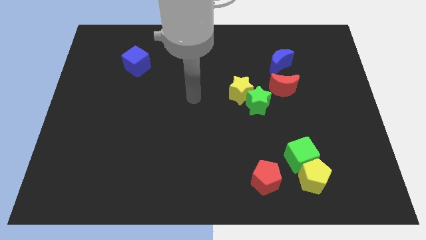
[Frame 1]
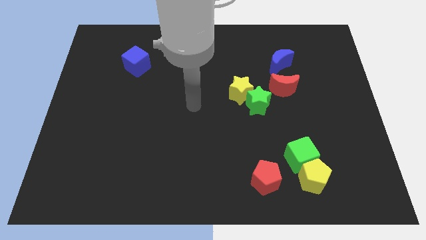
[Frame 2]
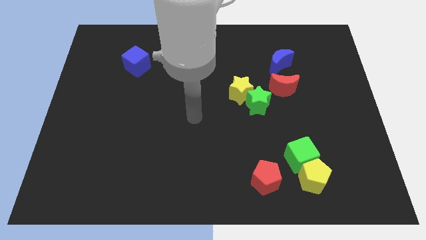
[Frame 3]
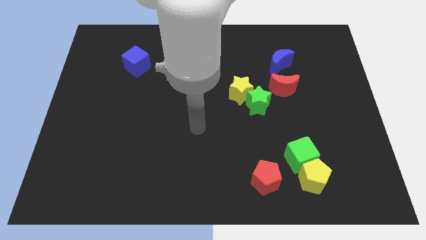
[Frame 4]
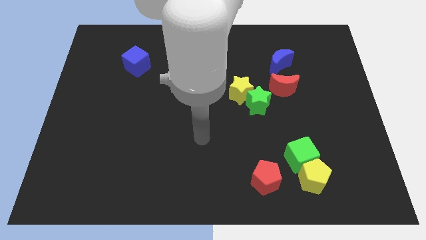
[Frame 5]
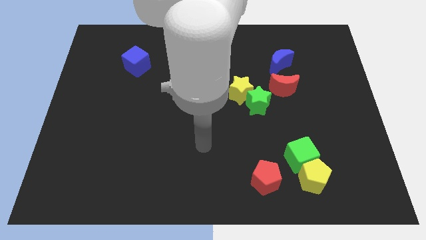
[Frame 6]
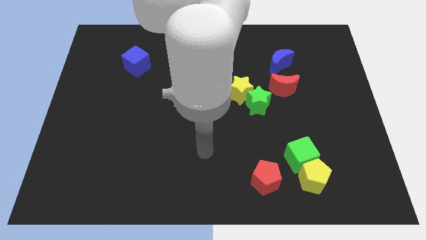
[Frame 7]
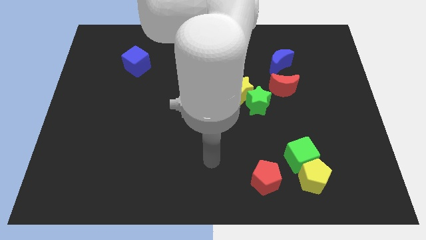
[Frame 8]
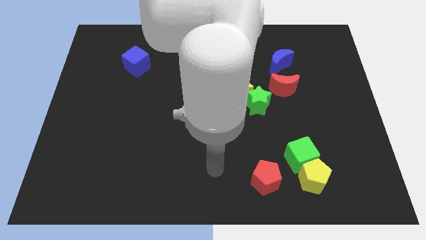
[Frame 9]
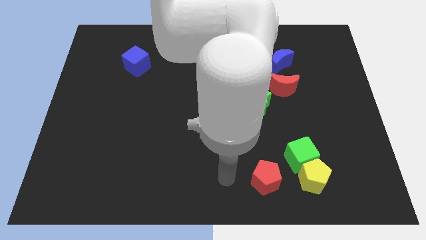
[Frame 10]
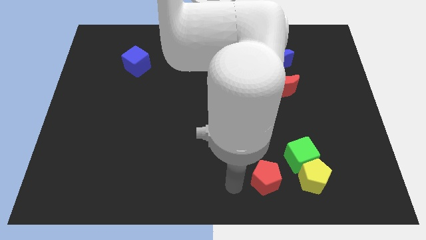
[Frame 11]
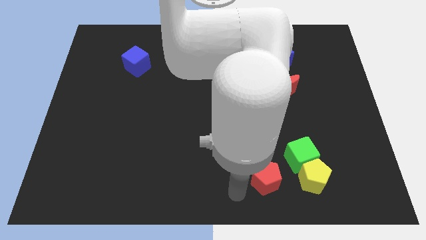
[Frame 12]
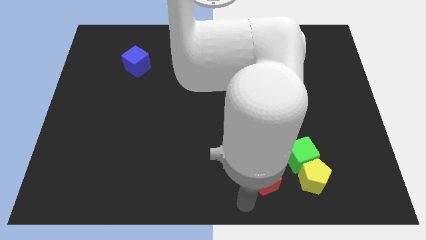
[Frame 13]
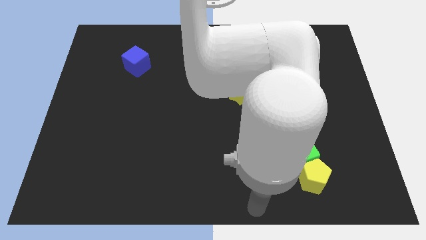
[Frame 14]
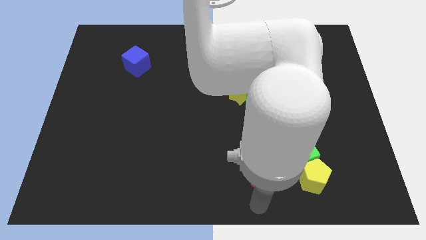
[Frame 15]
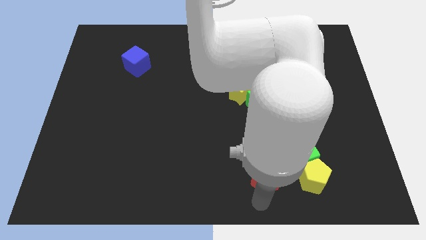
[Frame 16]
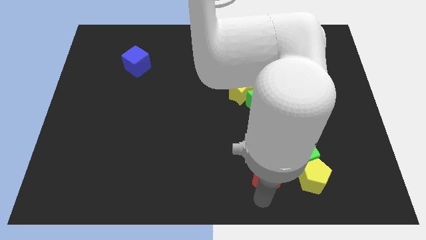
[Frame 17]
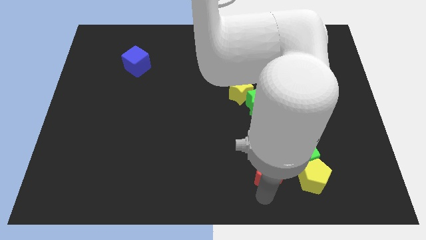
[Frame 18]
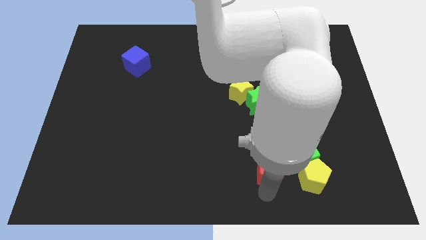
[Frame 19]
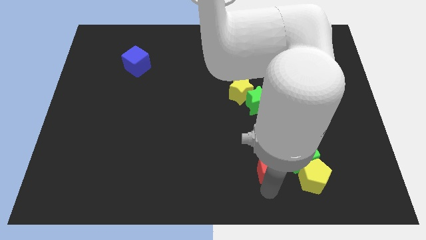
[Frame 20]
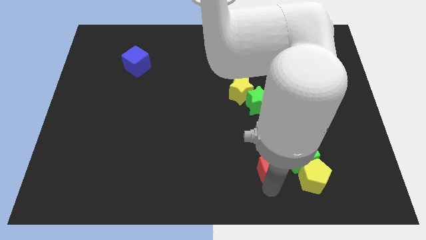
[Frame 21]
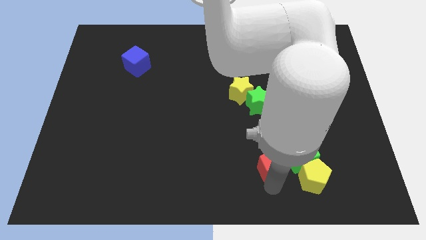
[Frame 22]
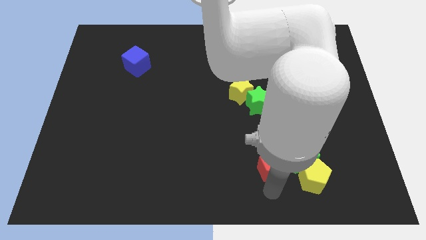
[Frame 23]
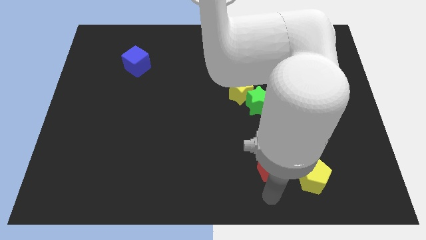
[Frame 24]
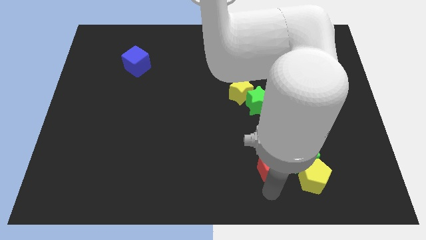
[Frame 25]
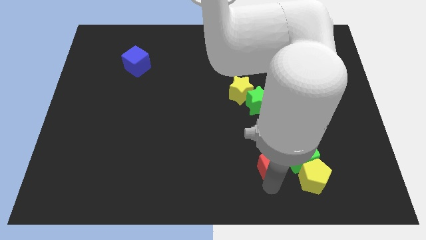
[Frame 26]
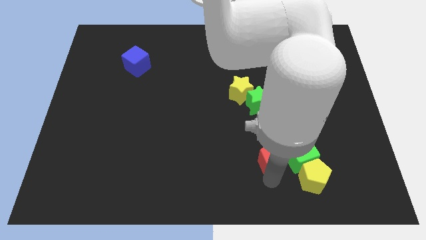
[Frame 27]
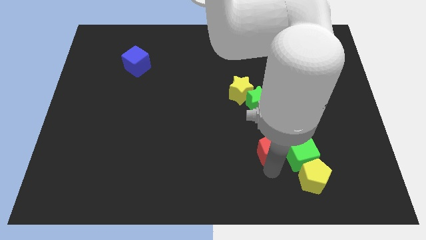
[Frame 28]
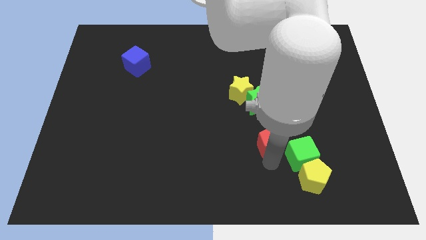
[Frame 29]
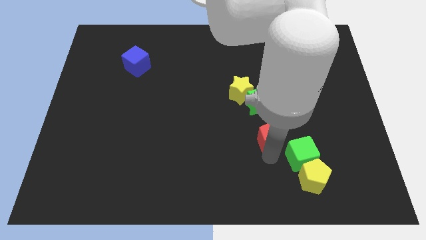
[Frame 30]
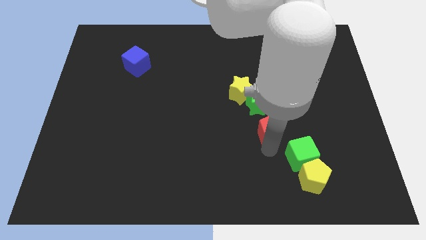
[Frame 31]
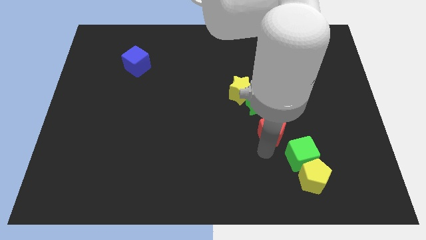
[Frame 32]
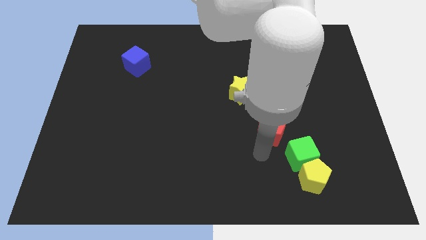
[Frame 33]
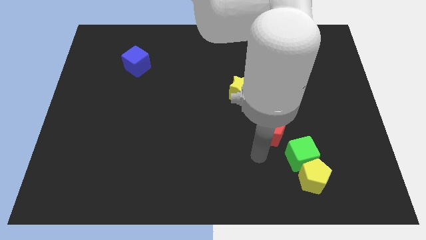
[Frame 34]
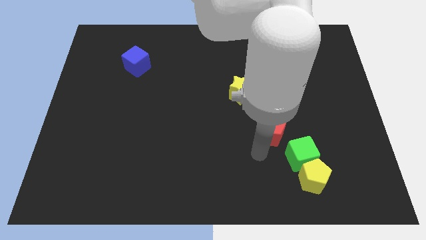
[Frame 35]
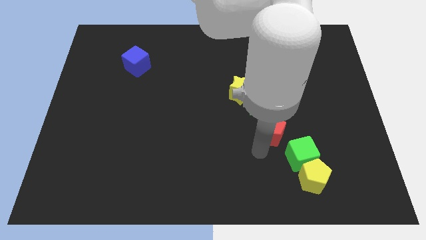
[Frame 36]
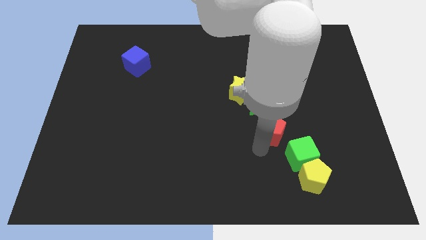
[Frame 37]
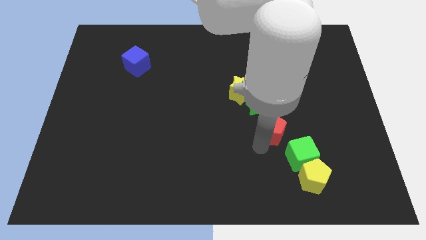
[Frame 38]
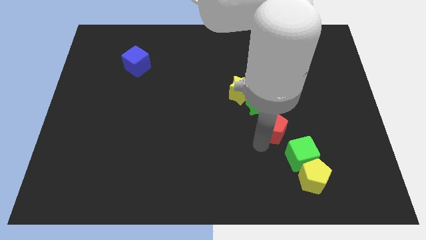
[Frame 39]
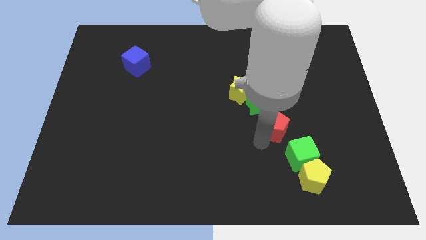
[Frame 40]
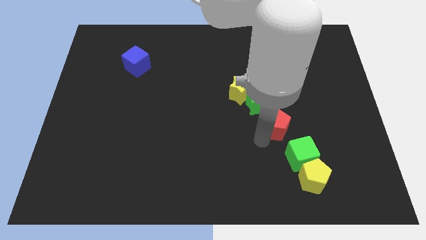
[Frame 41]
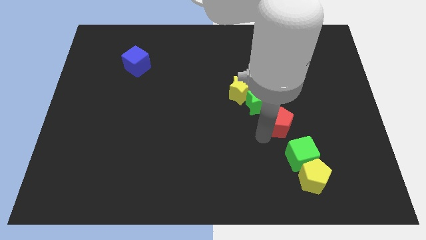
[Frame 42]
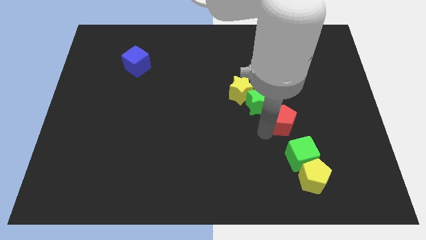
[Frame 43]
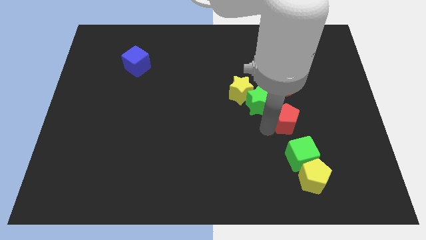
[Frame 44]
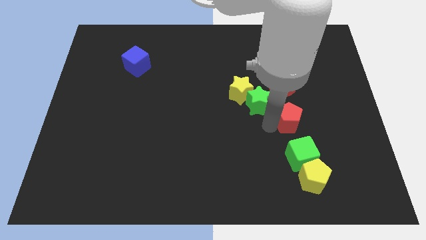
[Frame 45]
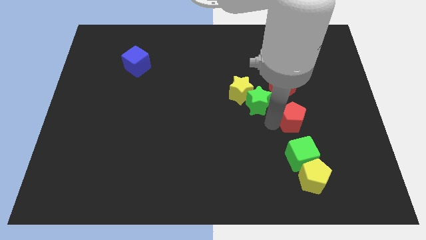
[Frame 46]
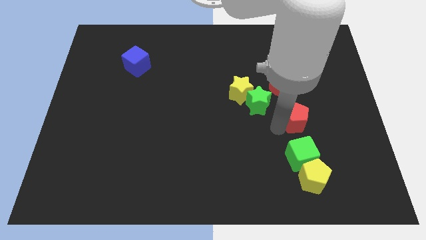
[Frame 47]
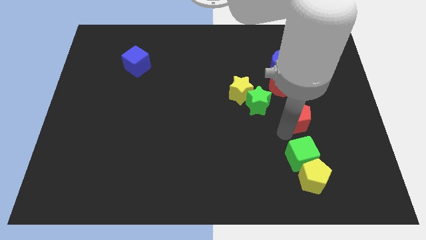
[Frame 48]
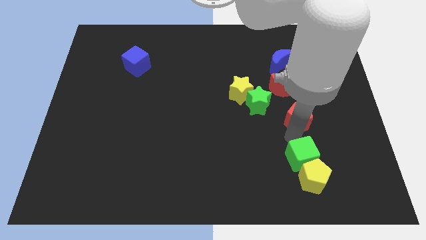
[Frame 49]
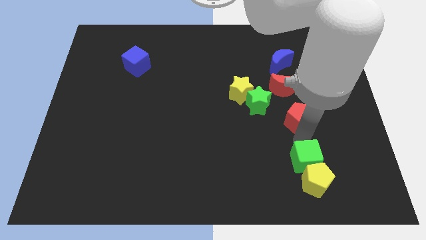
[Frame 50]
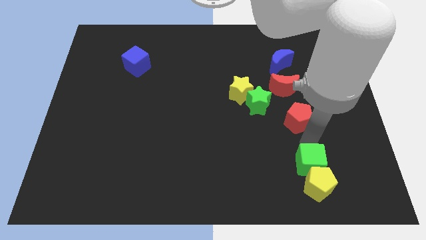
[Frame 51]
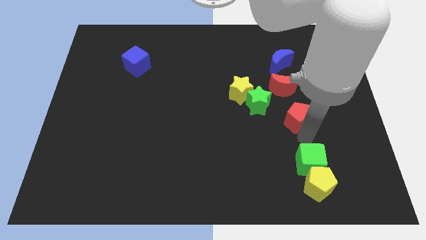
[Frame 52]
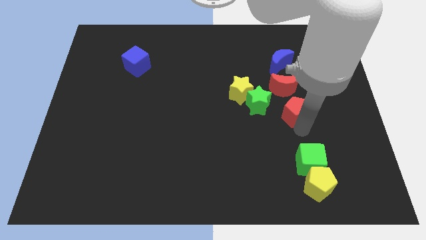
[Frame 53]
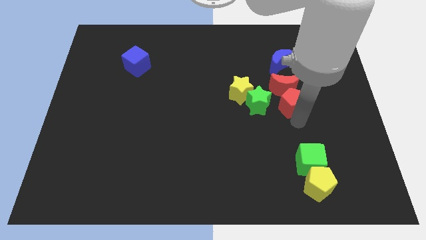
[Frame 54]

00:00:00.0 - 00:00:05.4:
slide the red pentagon close to the red moon

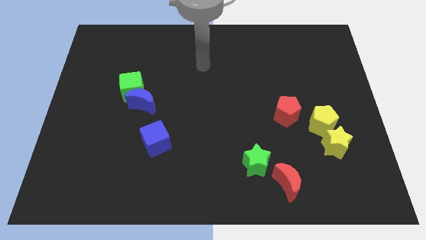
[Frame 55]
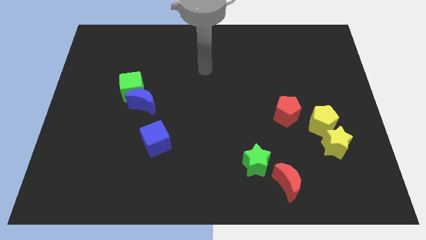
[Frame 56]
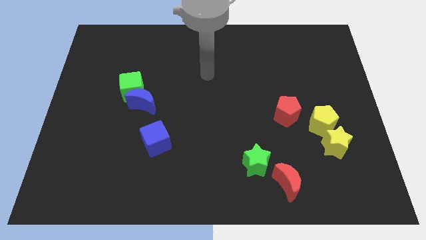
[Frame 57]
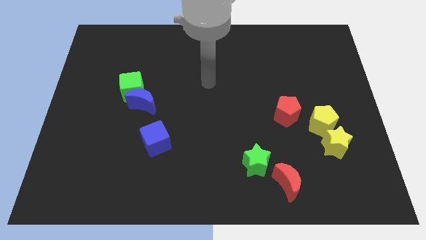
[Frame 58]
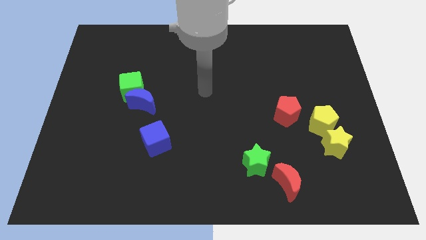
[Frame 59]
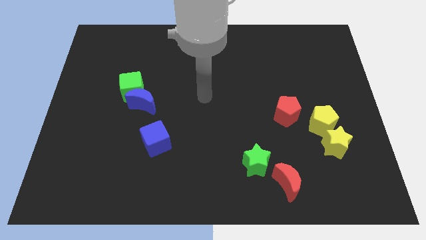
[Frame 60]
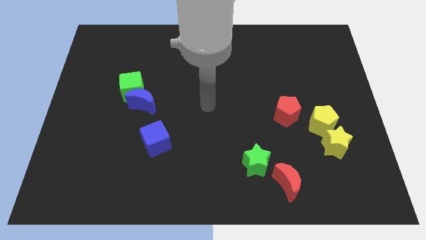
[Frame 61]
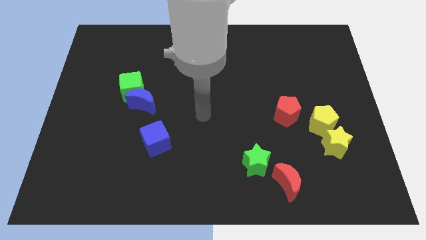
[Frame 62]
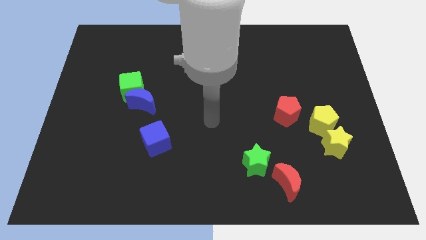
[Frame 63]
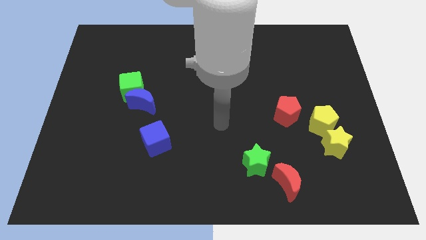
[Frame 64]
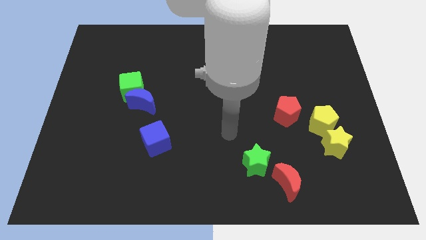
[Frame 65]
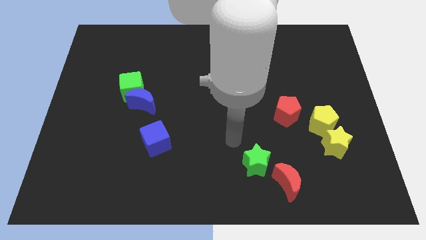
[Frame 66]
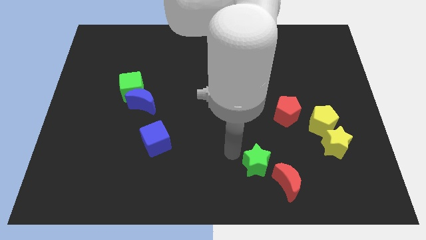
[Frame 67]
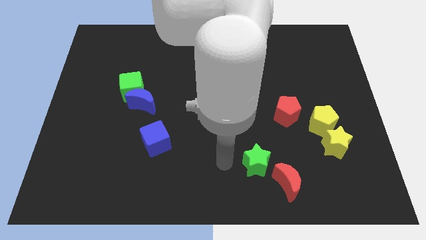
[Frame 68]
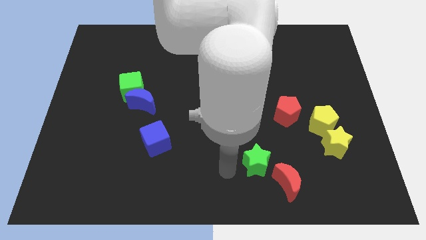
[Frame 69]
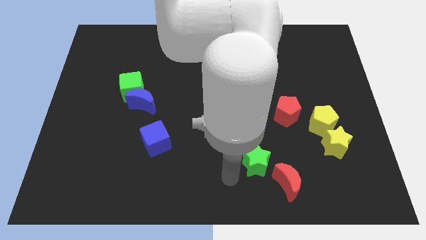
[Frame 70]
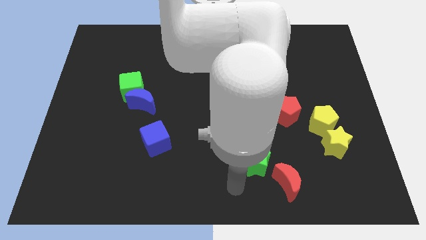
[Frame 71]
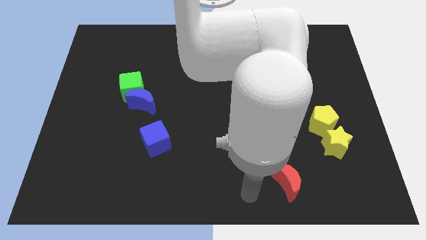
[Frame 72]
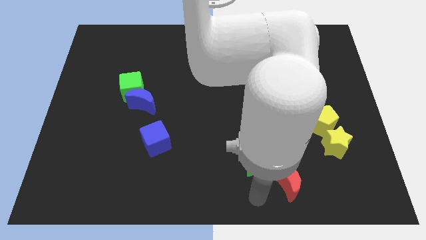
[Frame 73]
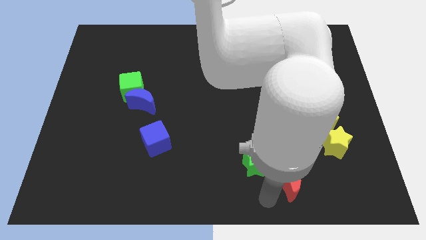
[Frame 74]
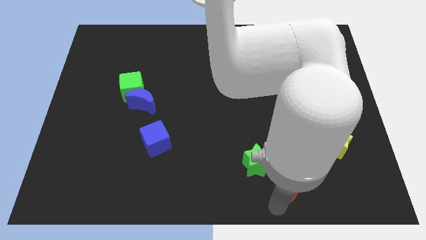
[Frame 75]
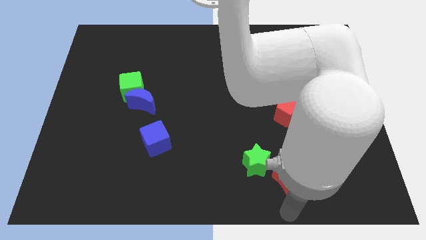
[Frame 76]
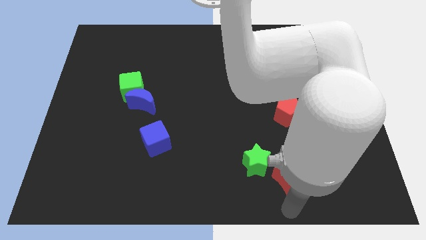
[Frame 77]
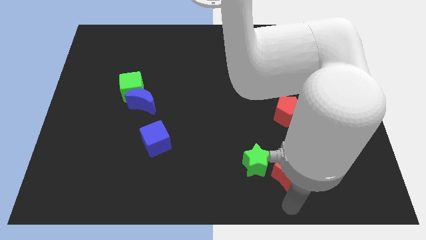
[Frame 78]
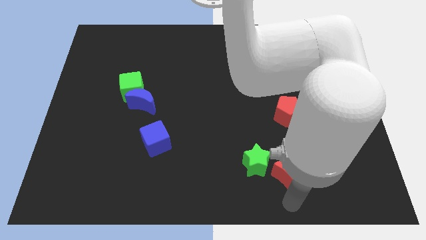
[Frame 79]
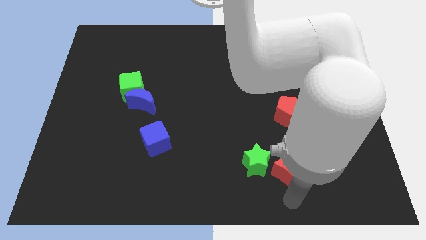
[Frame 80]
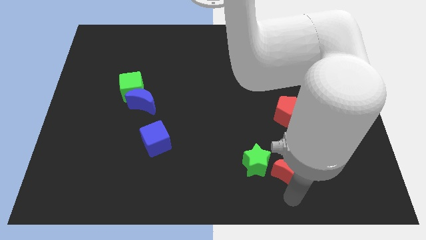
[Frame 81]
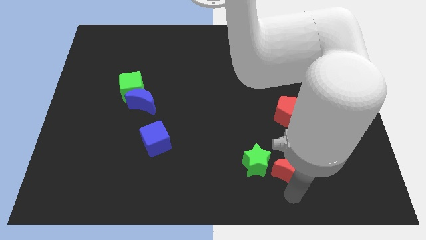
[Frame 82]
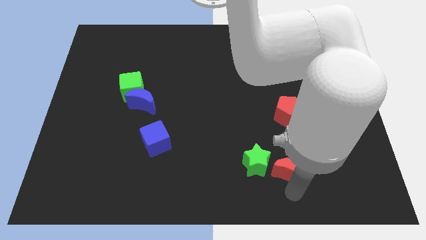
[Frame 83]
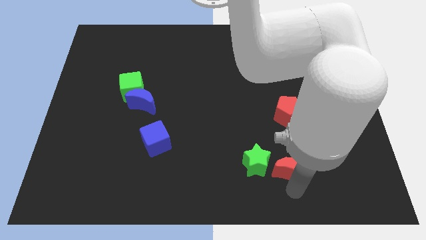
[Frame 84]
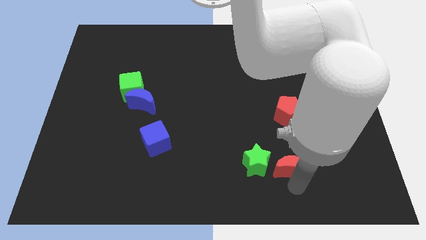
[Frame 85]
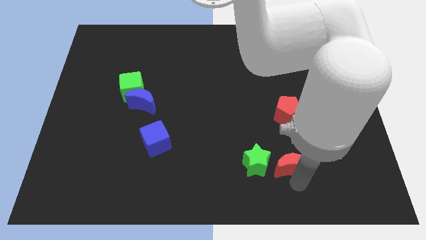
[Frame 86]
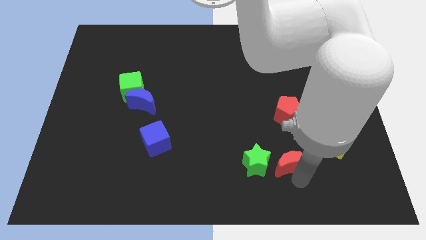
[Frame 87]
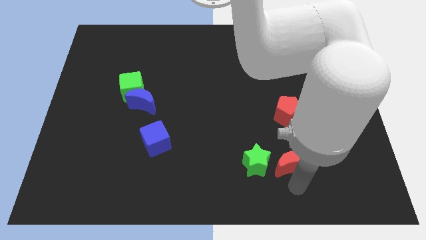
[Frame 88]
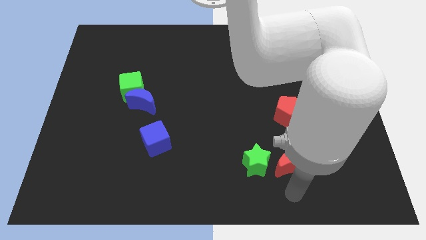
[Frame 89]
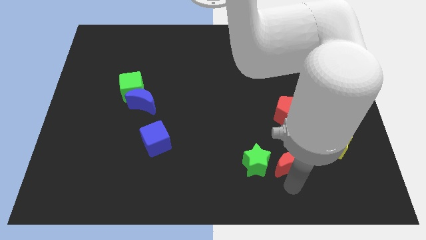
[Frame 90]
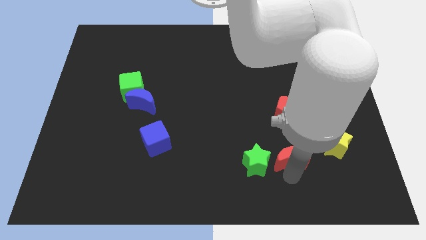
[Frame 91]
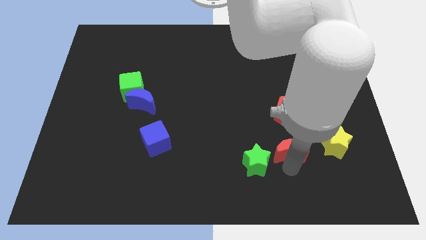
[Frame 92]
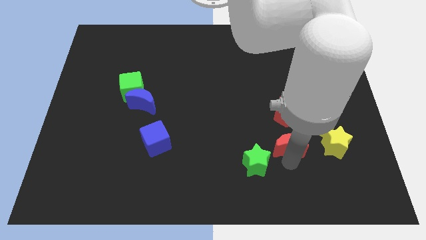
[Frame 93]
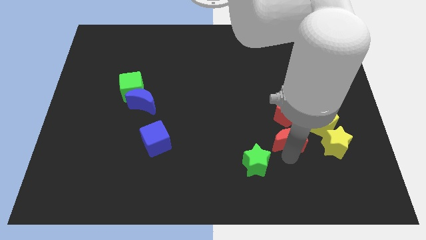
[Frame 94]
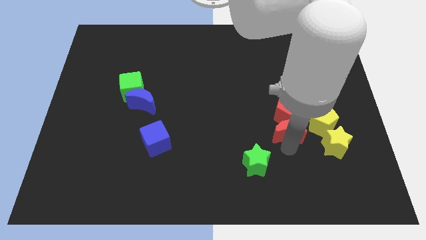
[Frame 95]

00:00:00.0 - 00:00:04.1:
move the red moon to the red pentagon
